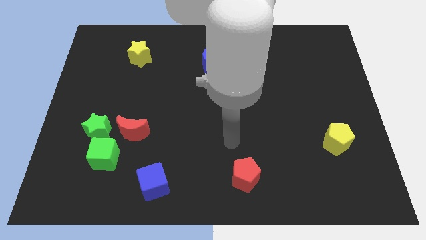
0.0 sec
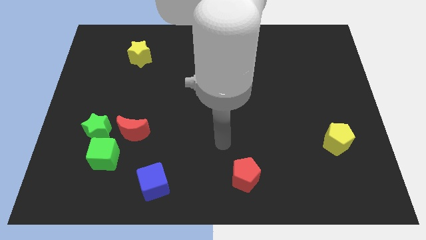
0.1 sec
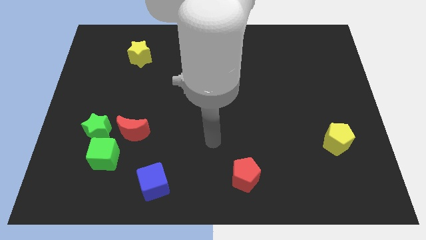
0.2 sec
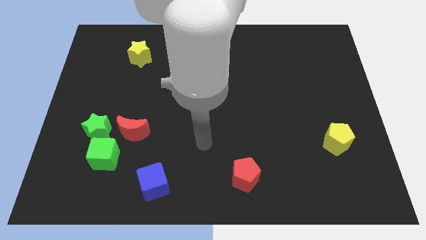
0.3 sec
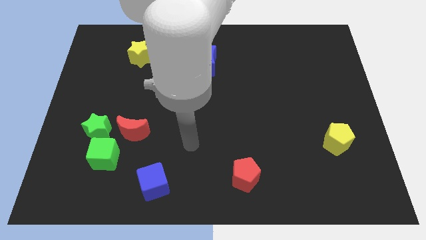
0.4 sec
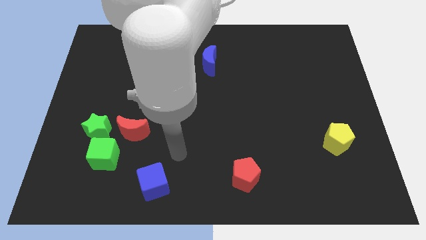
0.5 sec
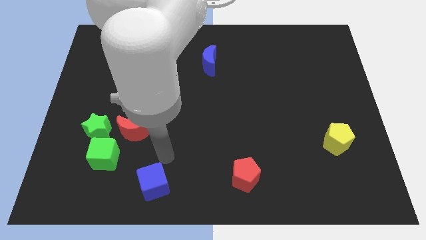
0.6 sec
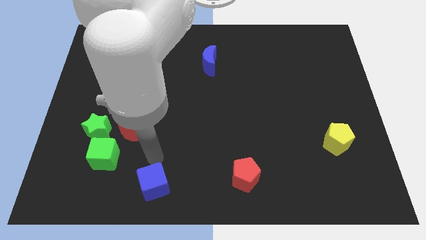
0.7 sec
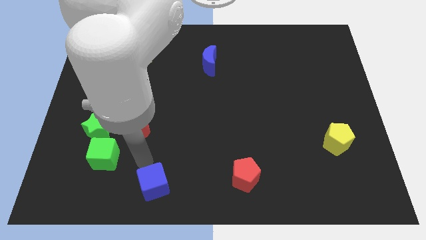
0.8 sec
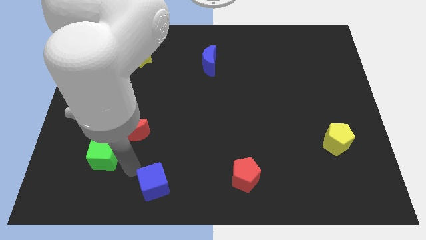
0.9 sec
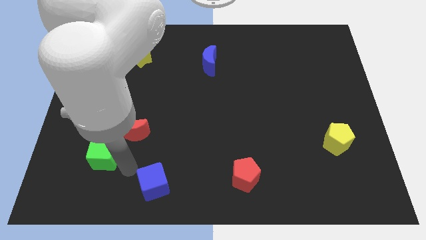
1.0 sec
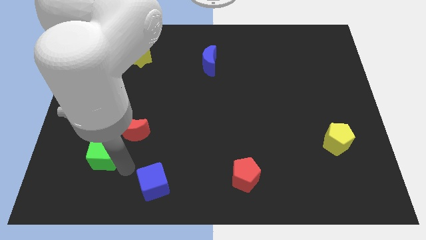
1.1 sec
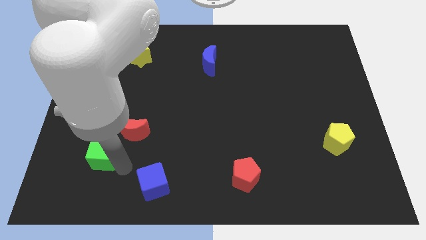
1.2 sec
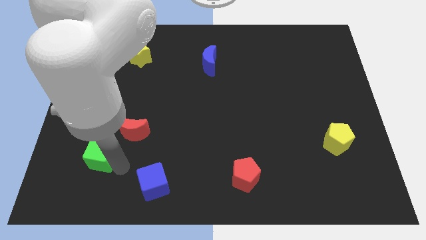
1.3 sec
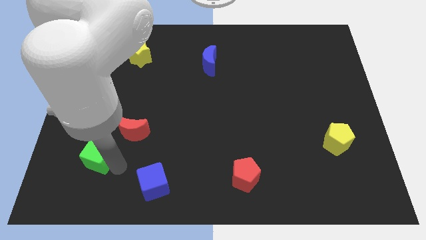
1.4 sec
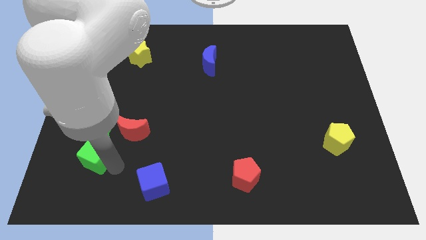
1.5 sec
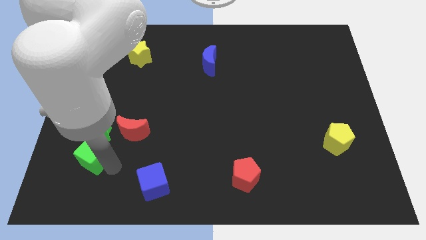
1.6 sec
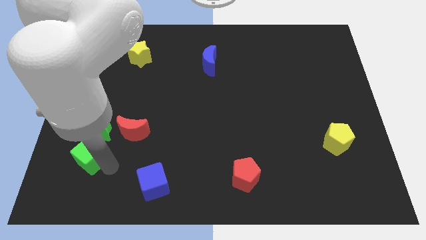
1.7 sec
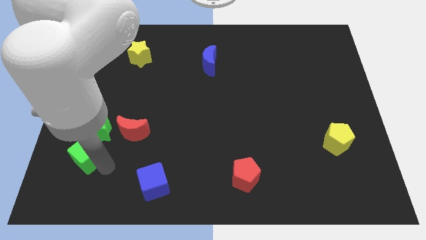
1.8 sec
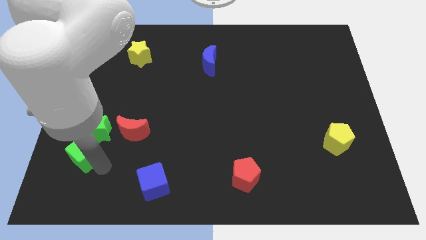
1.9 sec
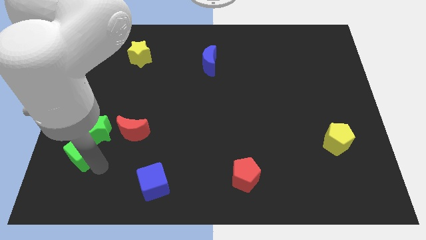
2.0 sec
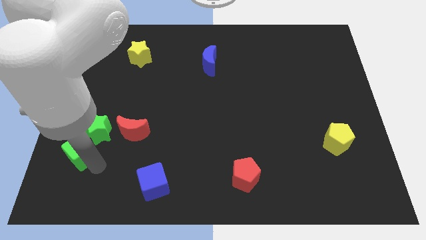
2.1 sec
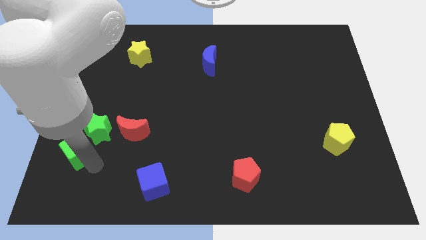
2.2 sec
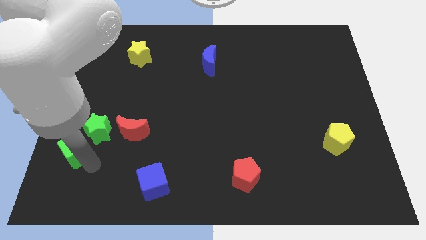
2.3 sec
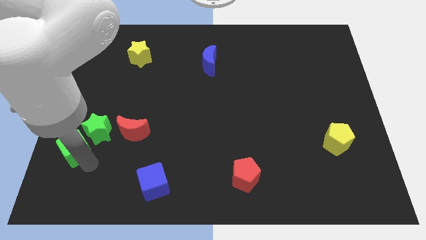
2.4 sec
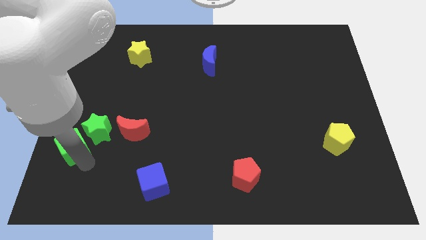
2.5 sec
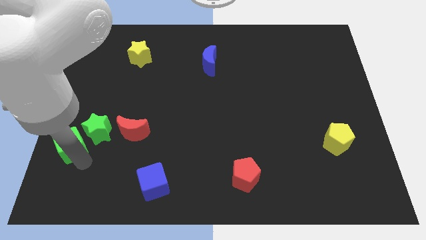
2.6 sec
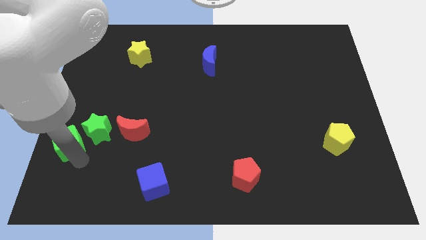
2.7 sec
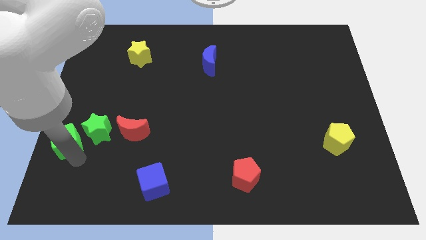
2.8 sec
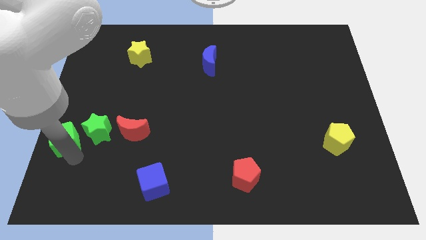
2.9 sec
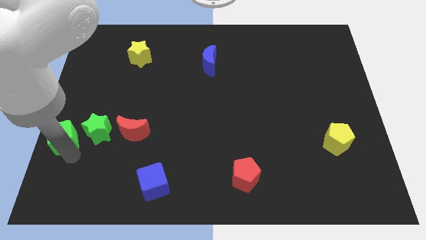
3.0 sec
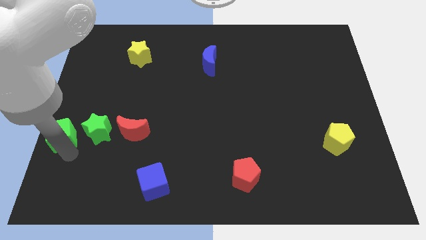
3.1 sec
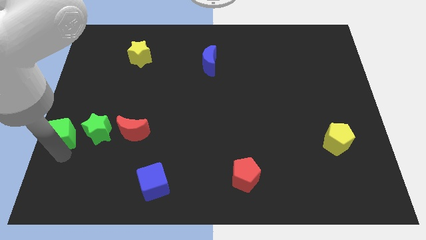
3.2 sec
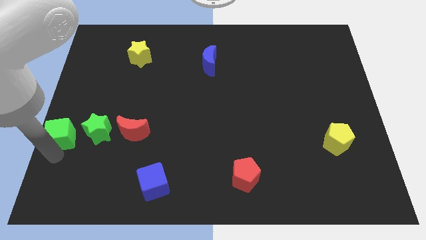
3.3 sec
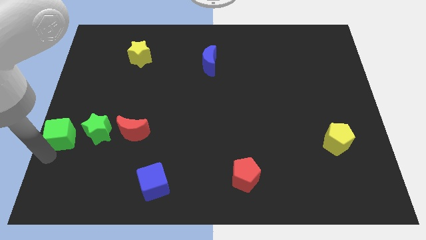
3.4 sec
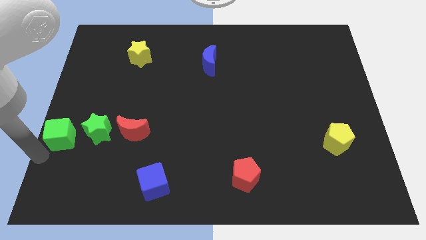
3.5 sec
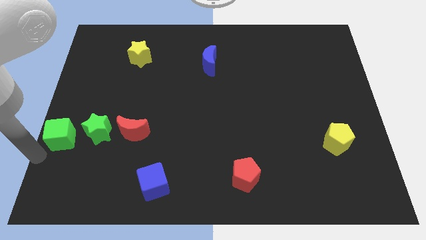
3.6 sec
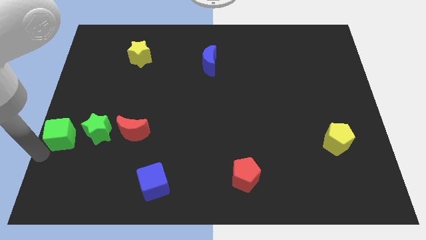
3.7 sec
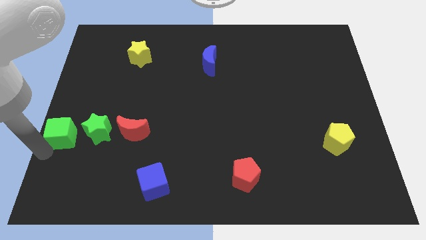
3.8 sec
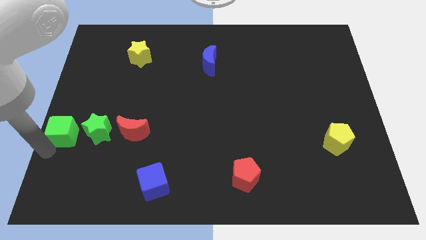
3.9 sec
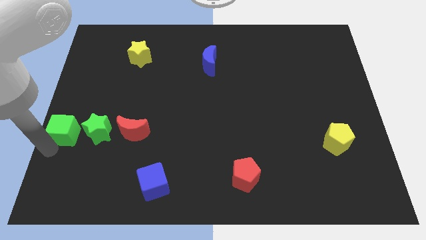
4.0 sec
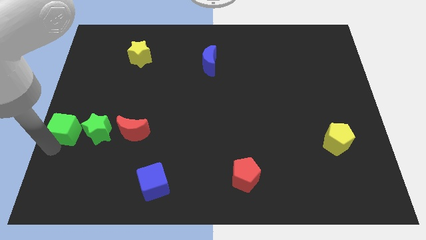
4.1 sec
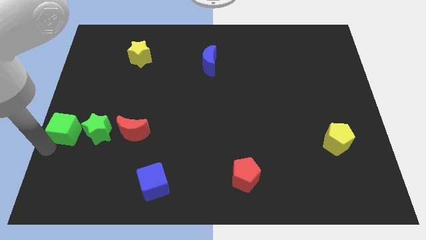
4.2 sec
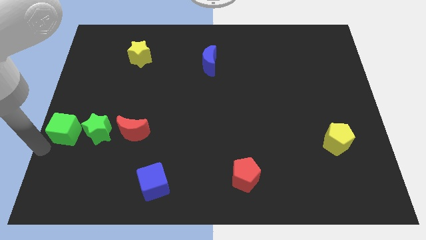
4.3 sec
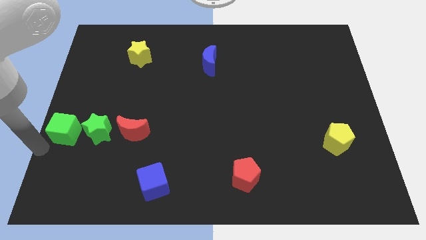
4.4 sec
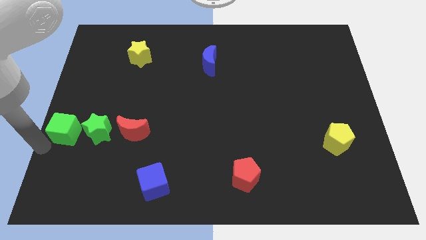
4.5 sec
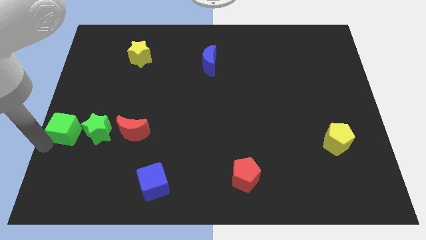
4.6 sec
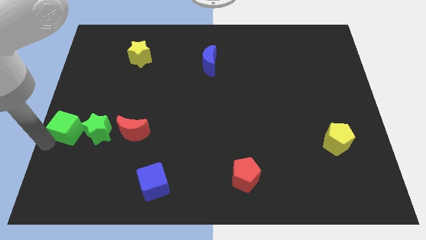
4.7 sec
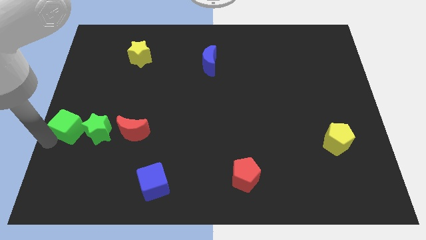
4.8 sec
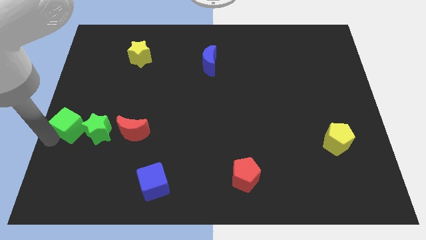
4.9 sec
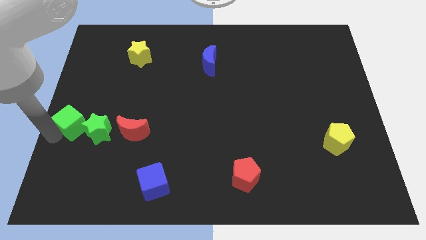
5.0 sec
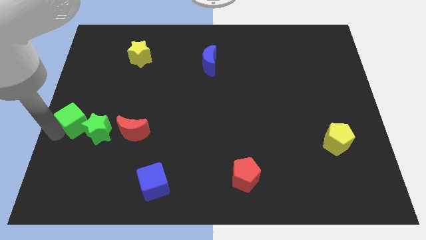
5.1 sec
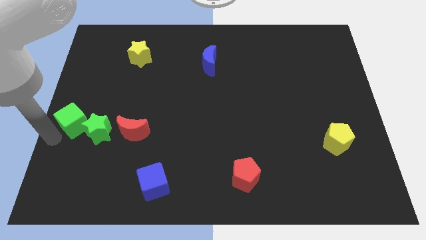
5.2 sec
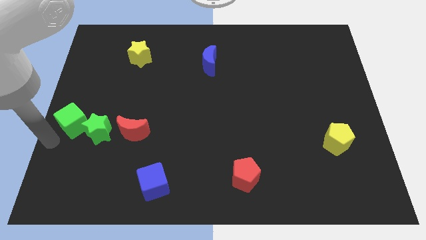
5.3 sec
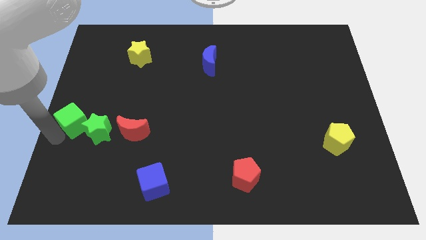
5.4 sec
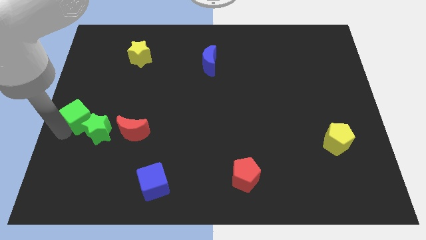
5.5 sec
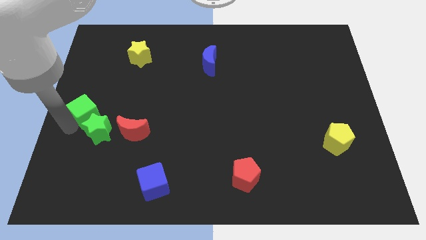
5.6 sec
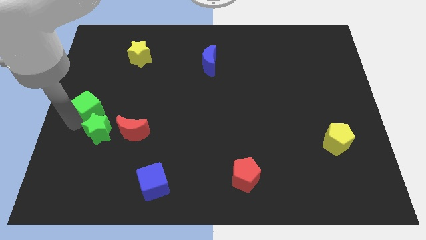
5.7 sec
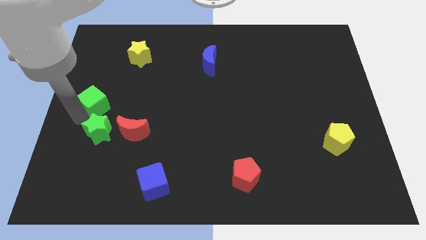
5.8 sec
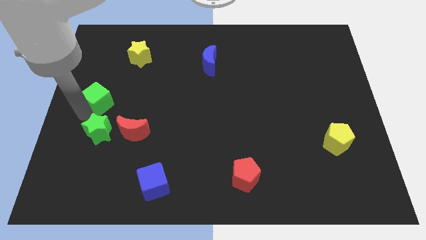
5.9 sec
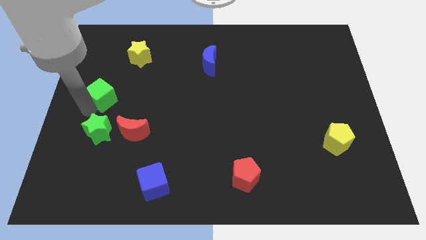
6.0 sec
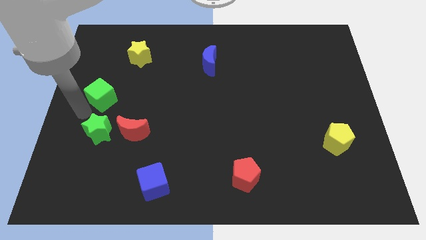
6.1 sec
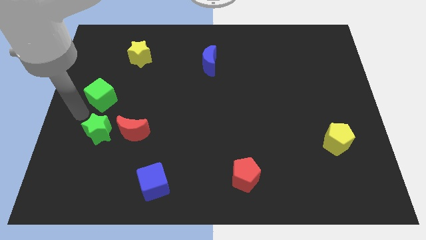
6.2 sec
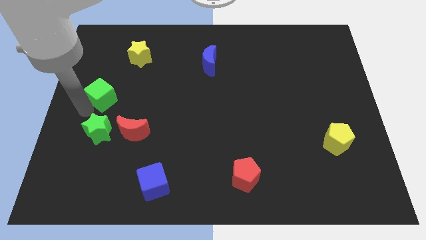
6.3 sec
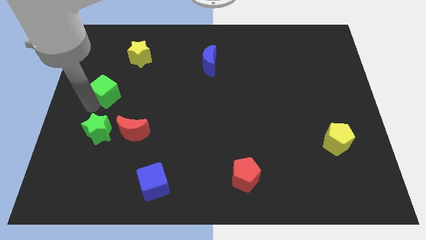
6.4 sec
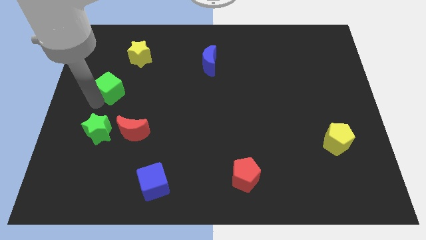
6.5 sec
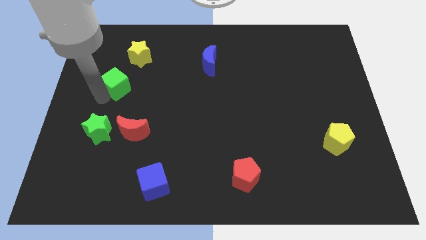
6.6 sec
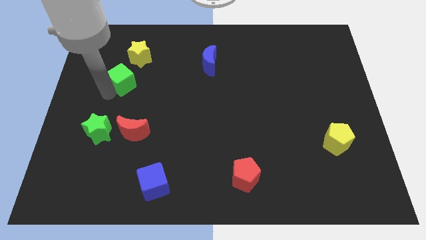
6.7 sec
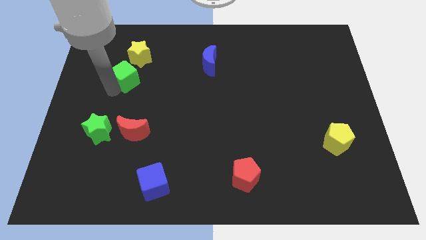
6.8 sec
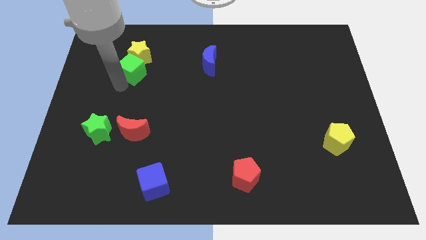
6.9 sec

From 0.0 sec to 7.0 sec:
put the green cube close to the yellow star
